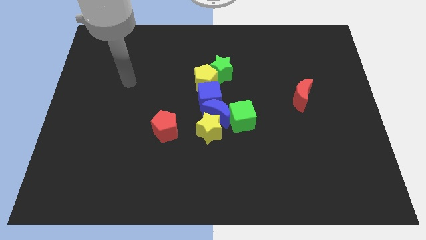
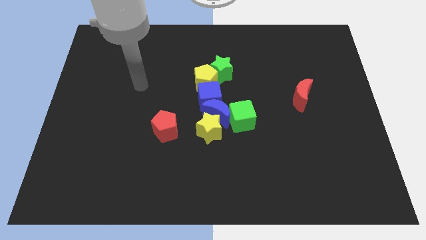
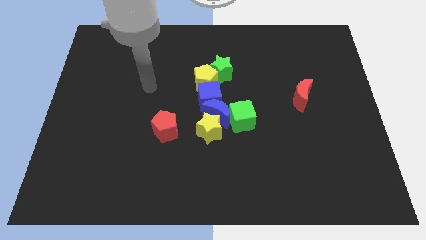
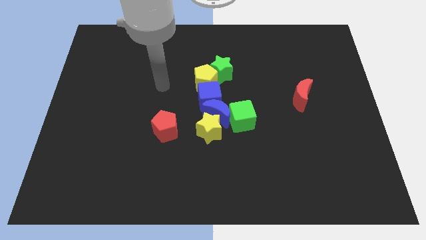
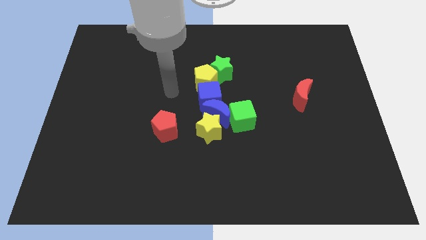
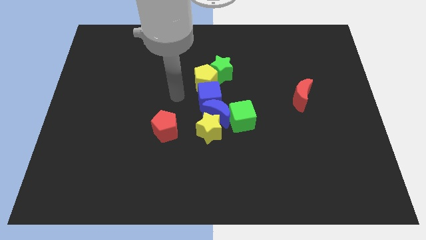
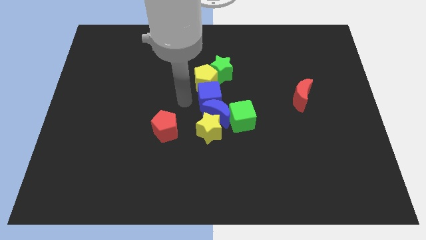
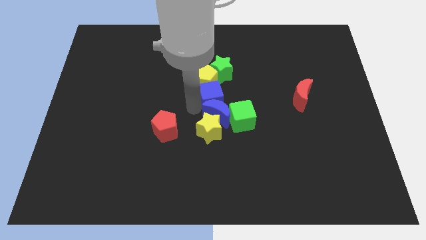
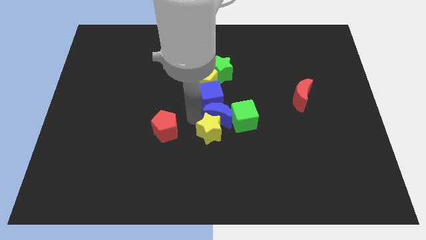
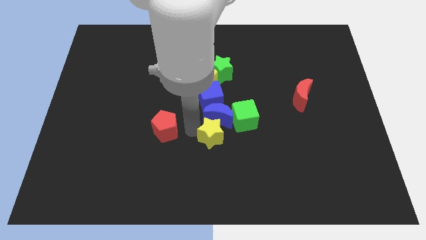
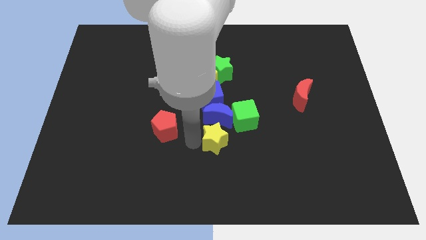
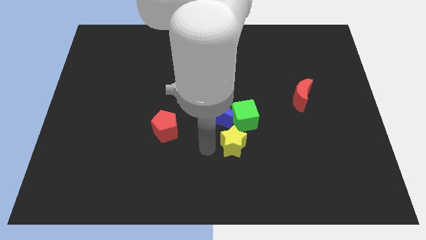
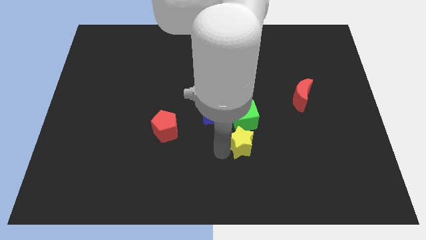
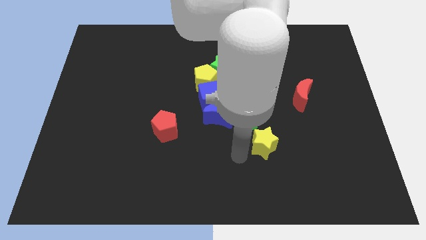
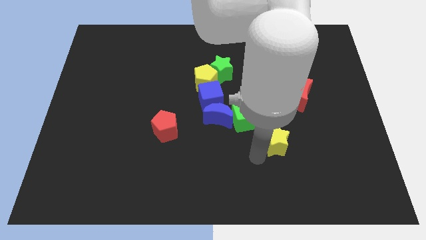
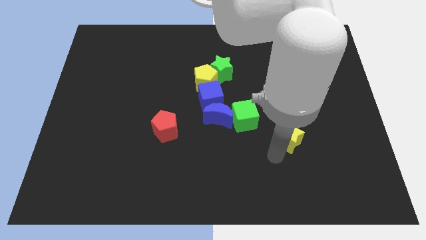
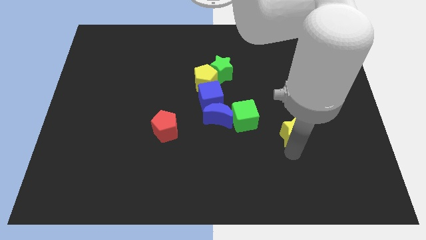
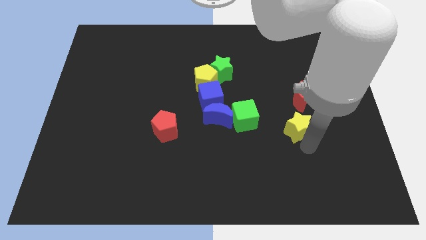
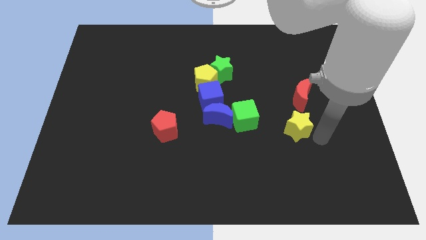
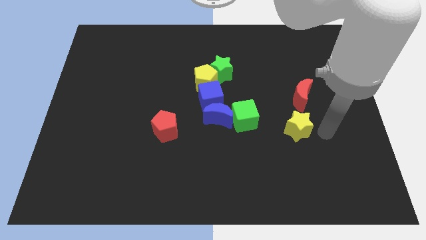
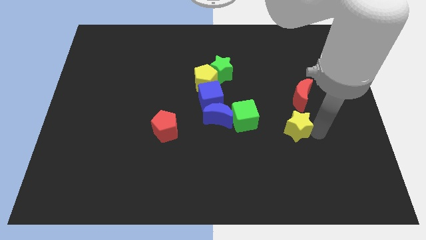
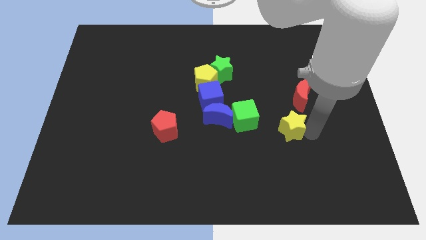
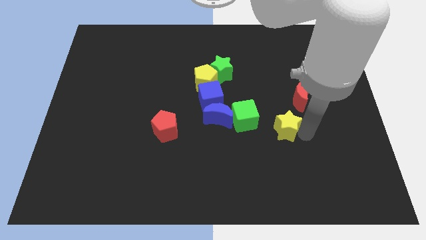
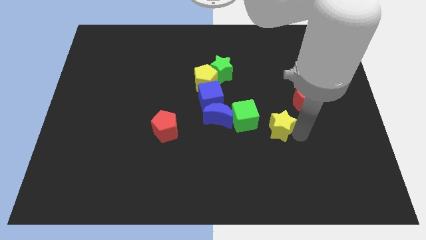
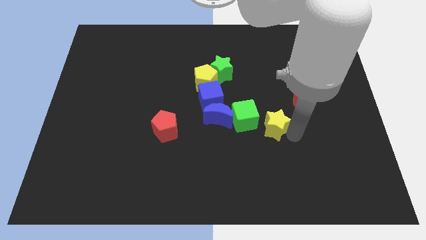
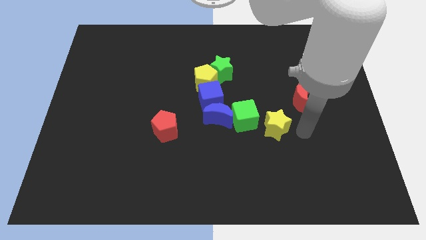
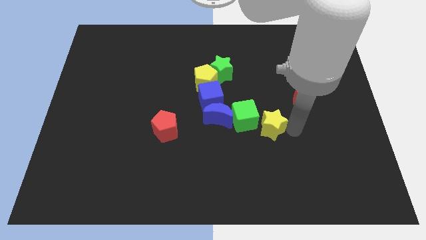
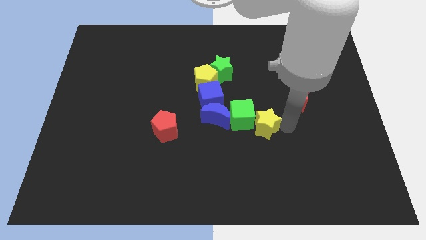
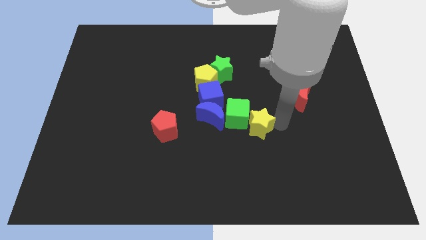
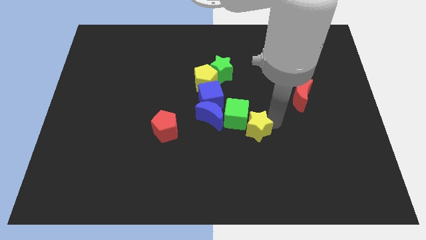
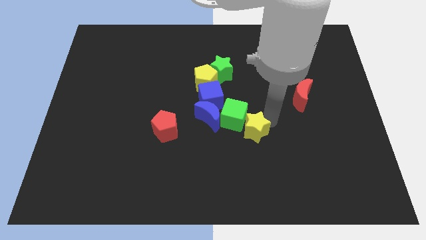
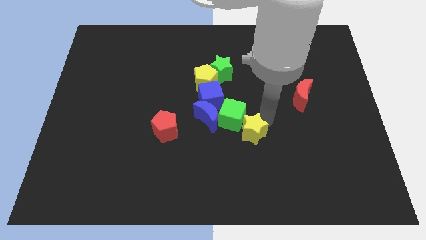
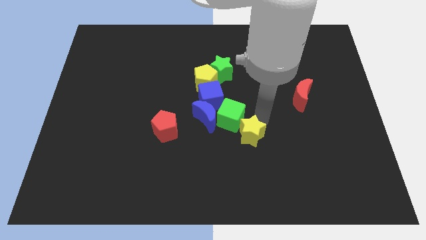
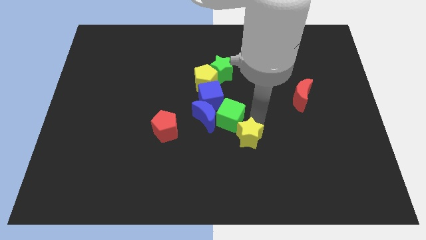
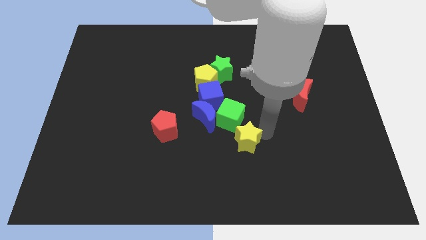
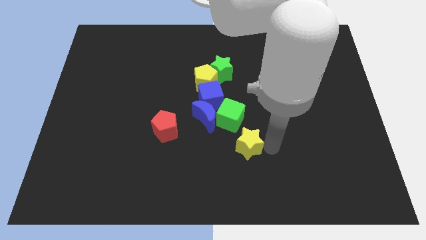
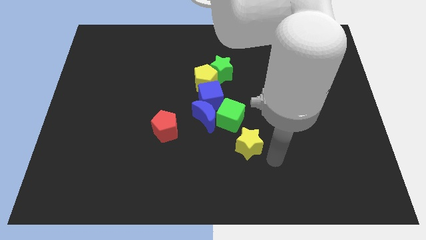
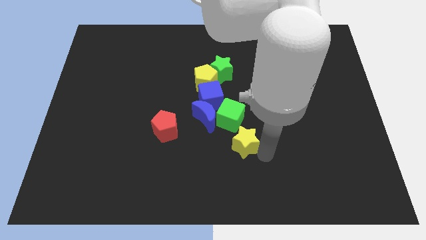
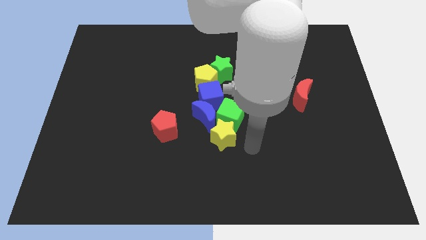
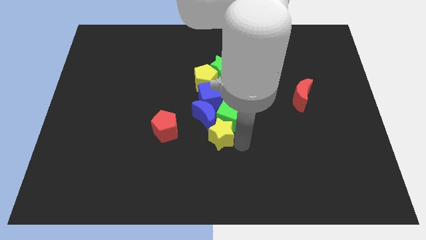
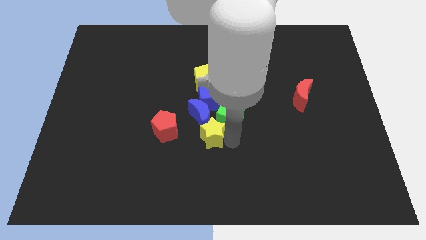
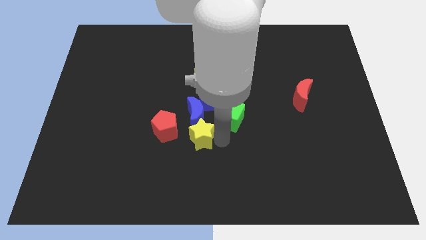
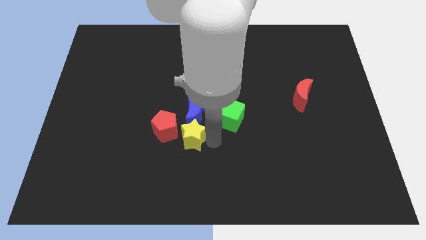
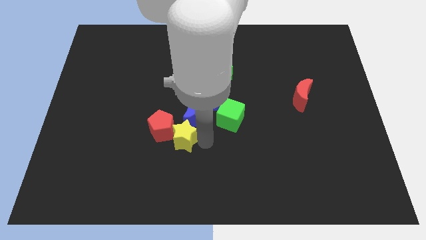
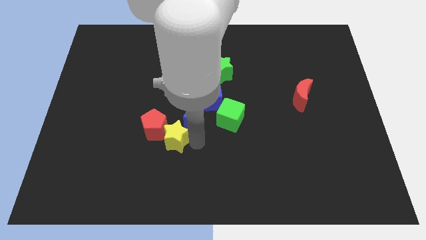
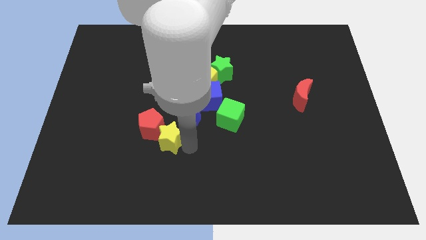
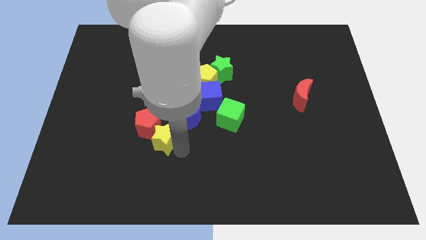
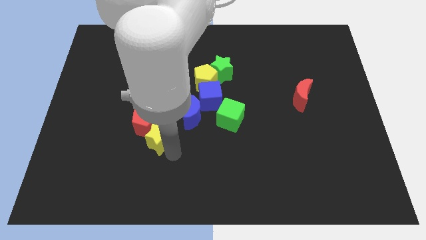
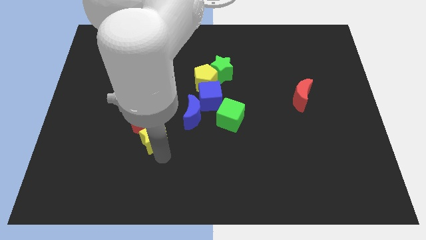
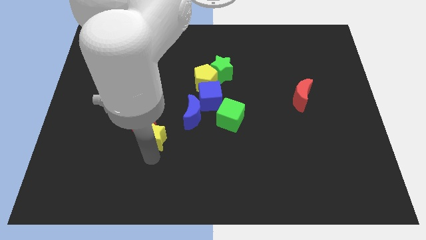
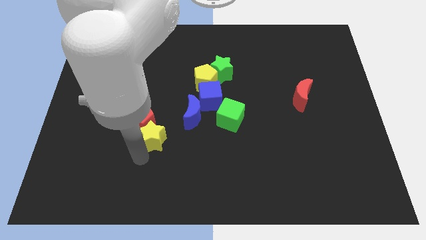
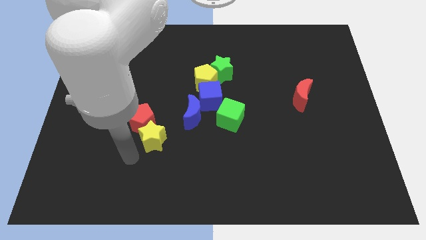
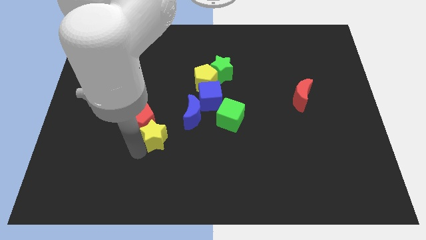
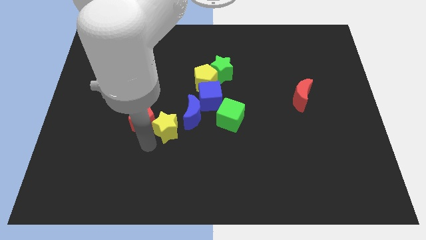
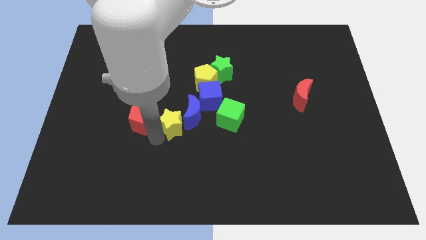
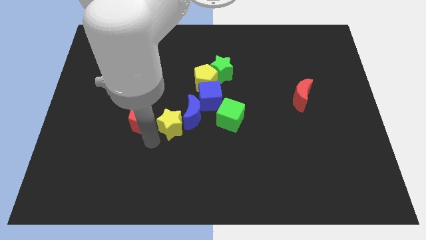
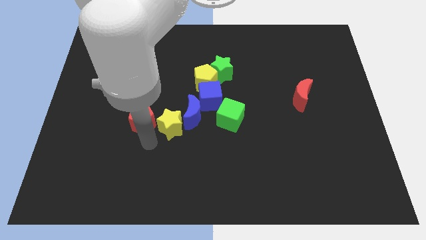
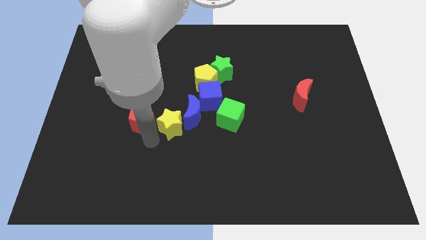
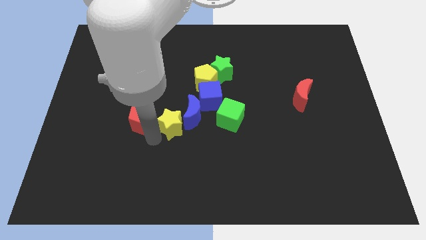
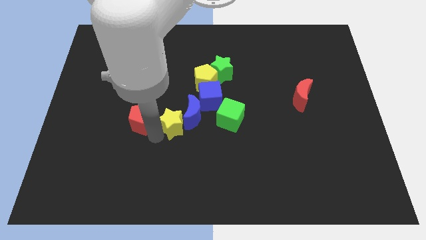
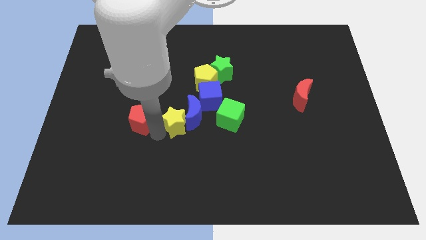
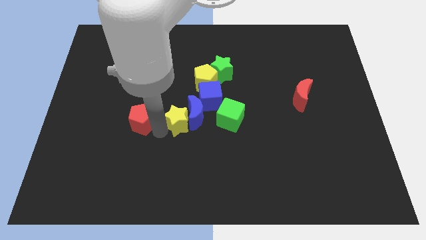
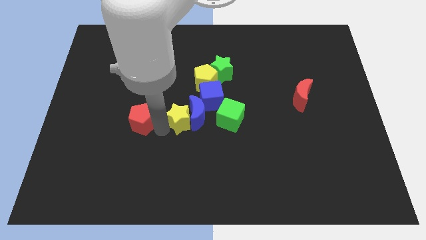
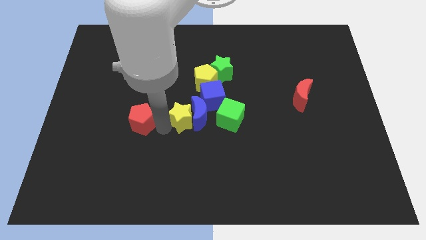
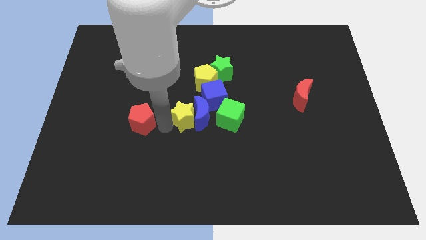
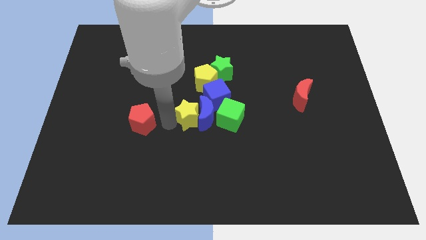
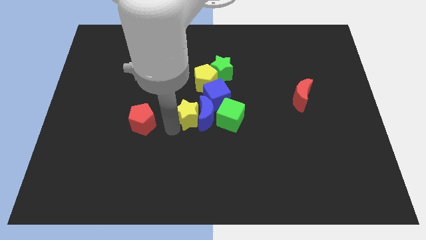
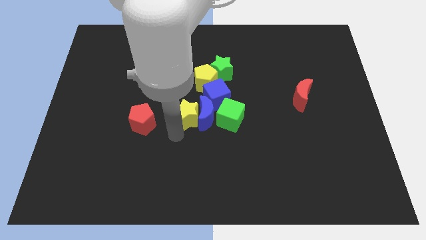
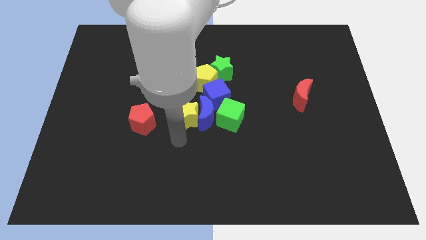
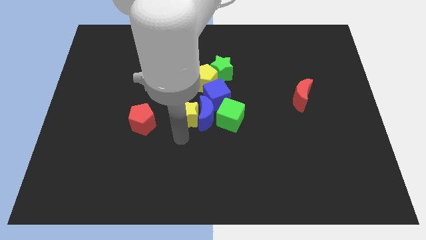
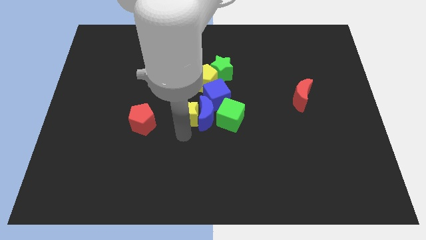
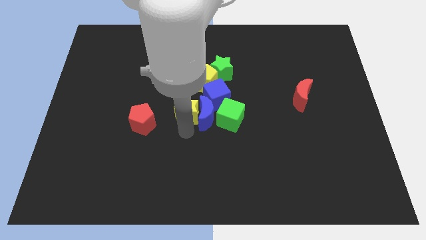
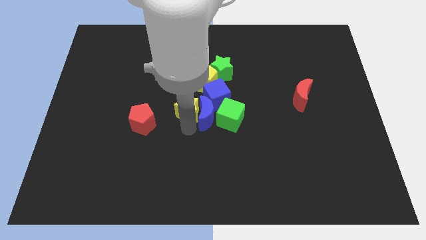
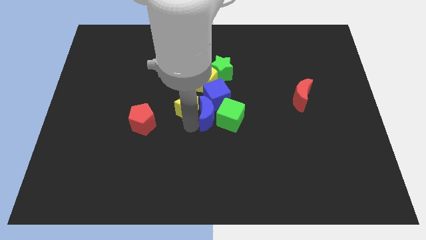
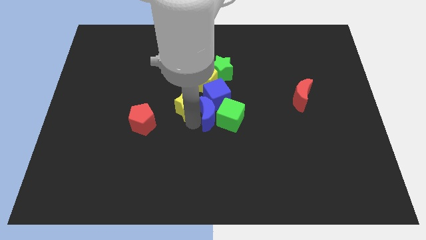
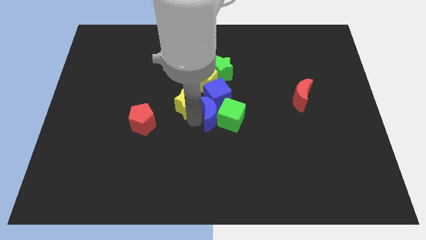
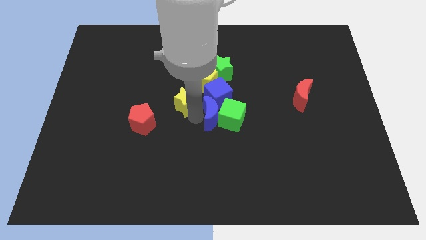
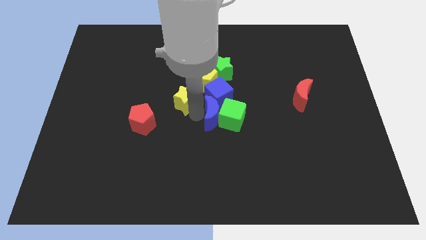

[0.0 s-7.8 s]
push the yellow star diagonally down and to the left of the green star
